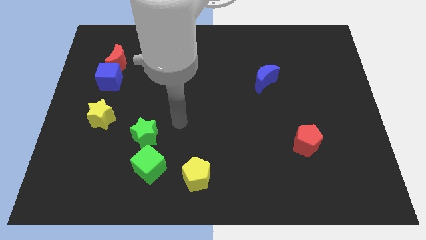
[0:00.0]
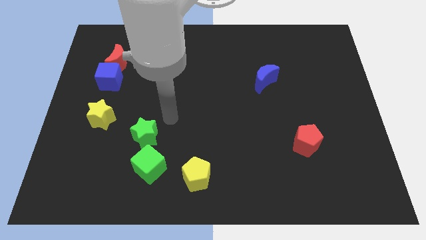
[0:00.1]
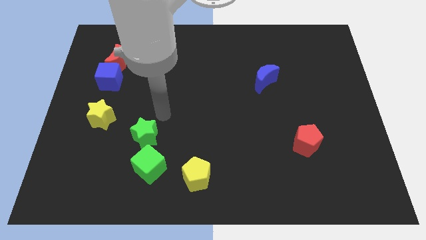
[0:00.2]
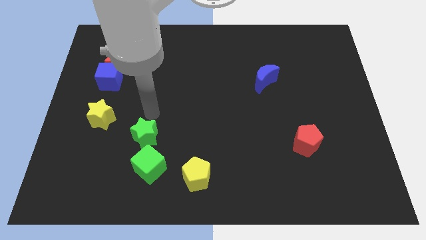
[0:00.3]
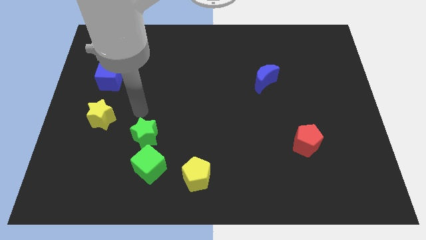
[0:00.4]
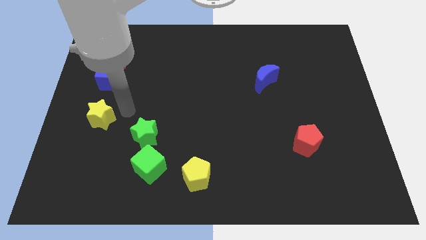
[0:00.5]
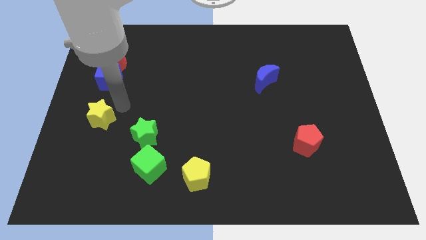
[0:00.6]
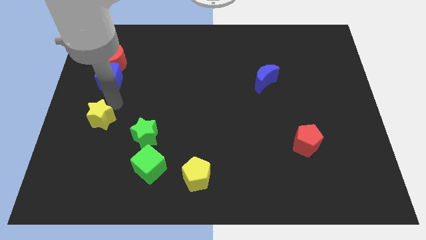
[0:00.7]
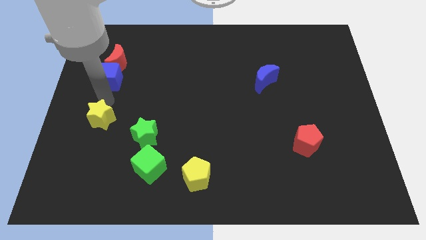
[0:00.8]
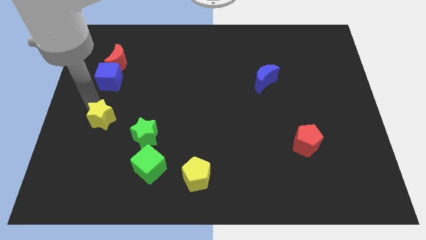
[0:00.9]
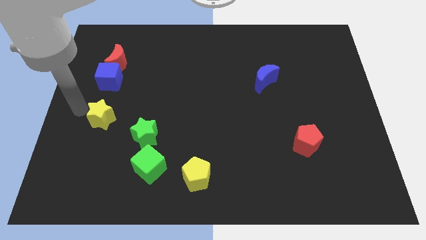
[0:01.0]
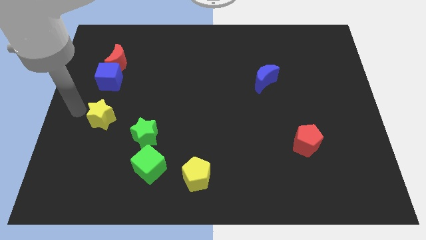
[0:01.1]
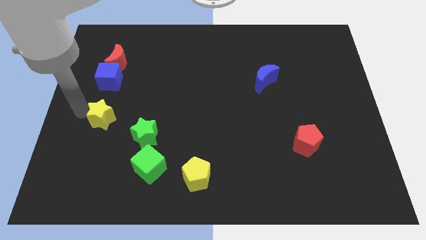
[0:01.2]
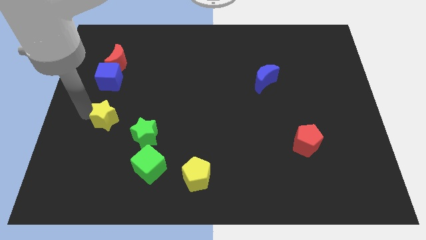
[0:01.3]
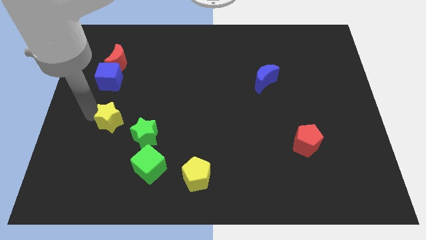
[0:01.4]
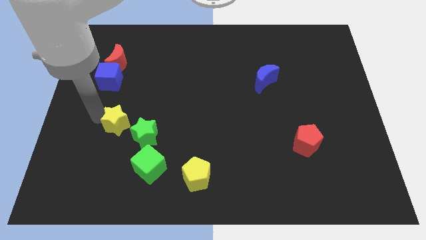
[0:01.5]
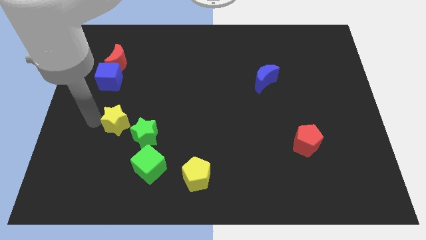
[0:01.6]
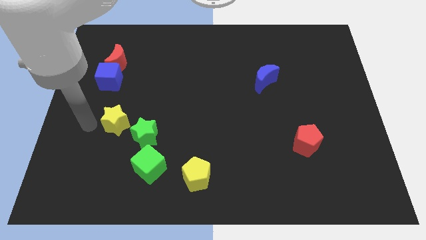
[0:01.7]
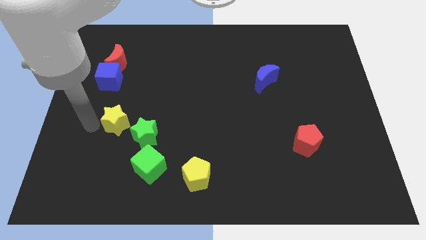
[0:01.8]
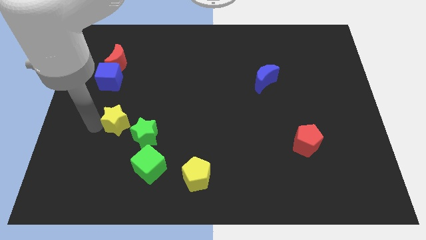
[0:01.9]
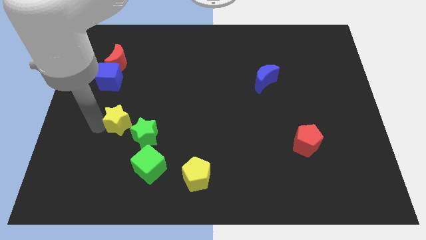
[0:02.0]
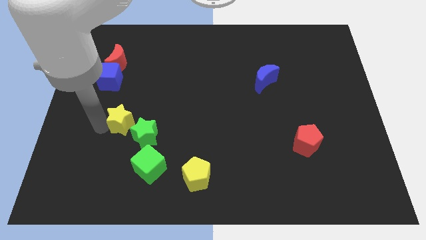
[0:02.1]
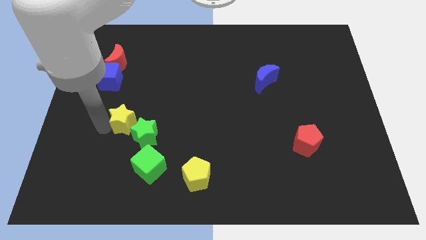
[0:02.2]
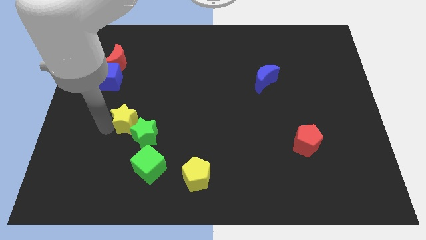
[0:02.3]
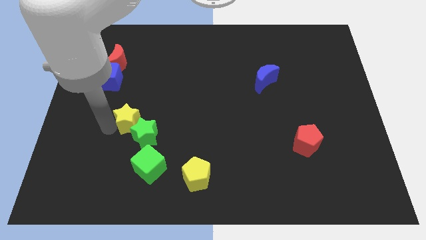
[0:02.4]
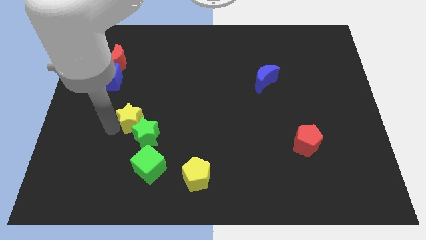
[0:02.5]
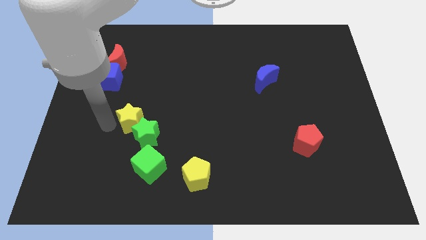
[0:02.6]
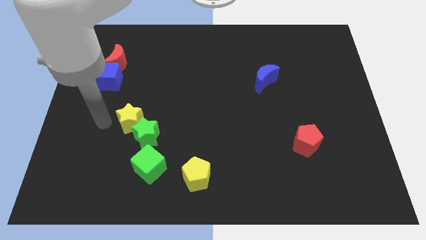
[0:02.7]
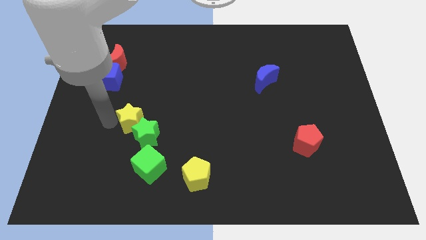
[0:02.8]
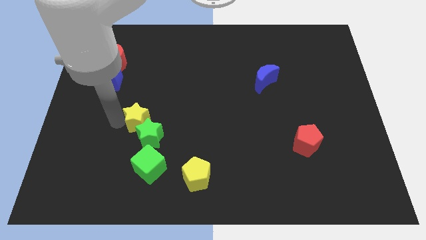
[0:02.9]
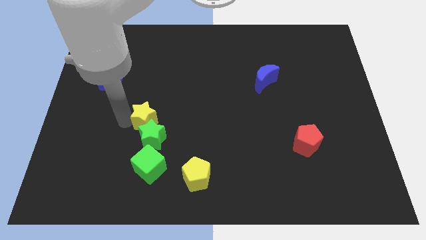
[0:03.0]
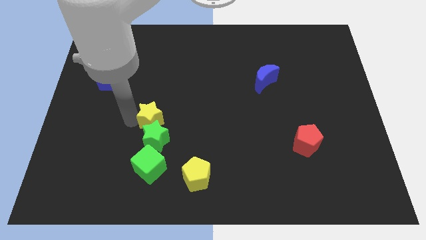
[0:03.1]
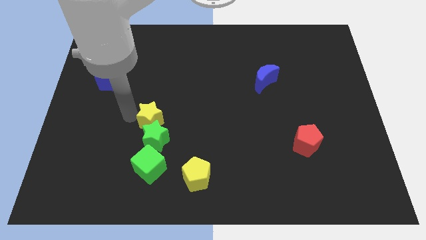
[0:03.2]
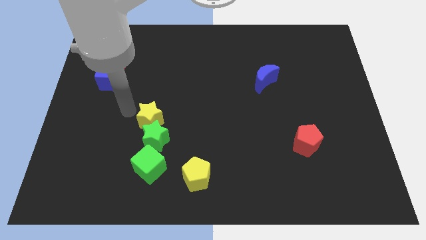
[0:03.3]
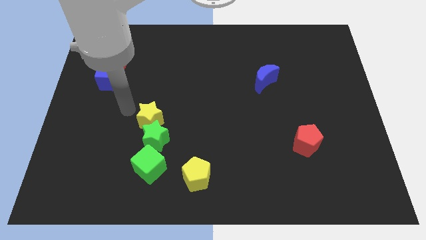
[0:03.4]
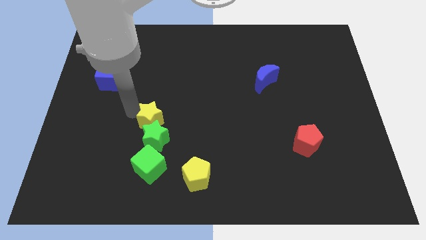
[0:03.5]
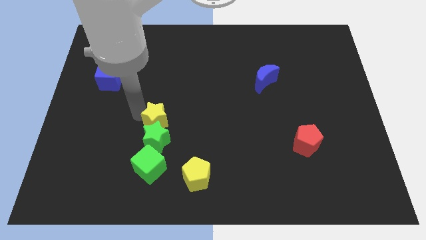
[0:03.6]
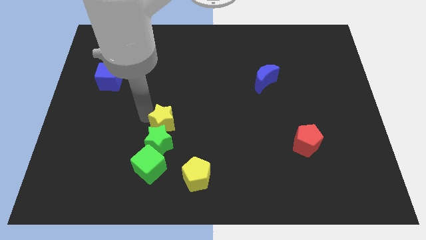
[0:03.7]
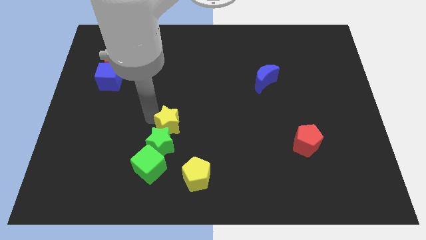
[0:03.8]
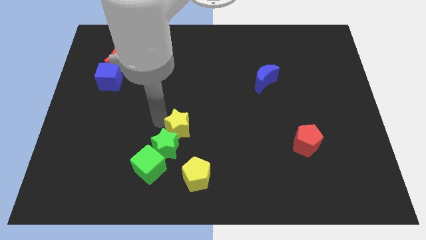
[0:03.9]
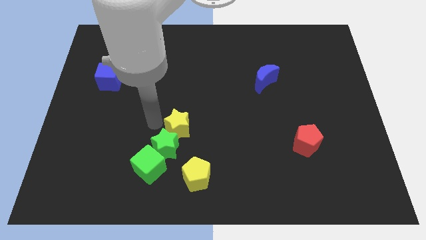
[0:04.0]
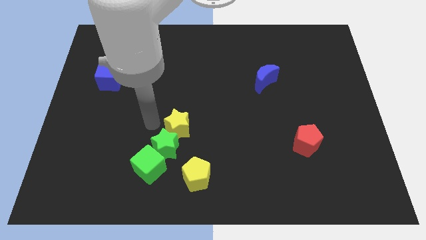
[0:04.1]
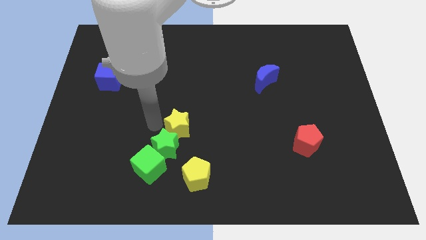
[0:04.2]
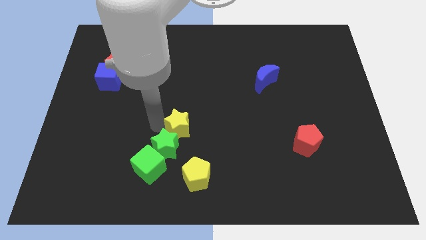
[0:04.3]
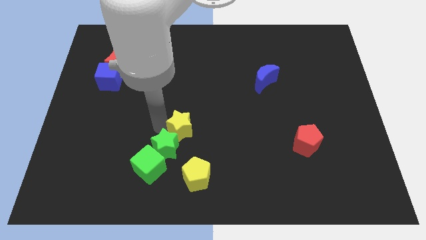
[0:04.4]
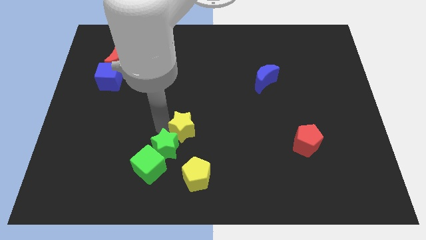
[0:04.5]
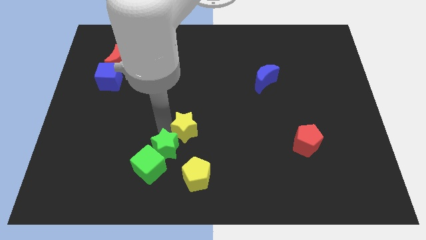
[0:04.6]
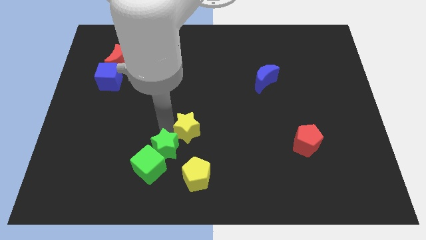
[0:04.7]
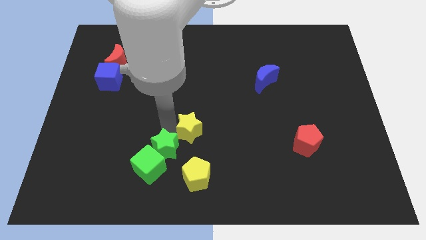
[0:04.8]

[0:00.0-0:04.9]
slide the yellow star to the right

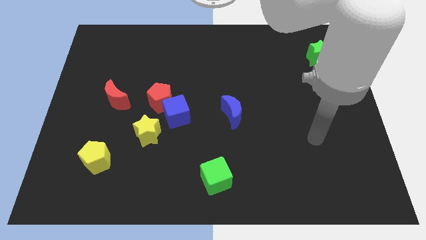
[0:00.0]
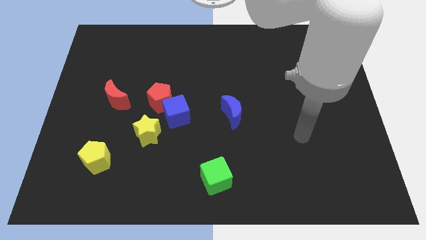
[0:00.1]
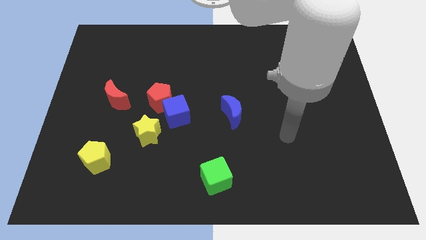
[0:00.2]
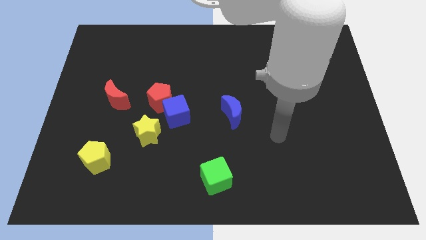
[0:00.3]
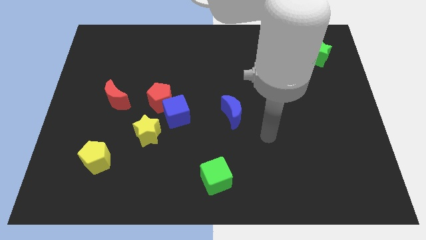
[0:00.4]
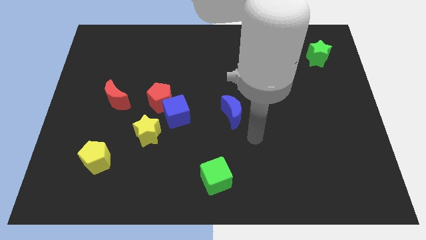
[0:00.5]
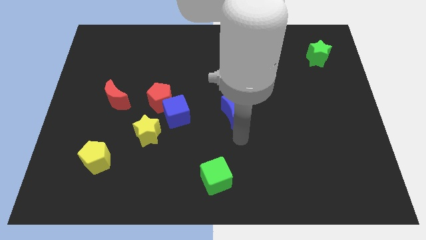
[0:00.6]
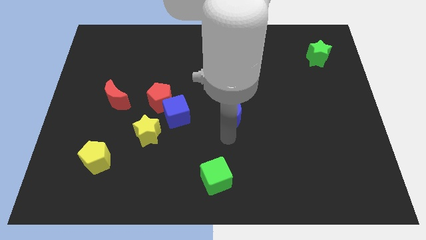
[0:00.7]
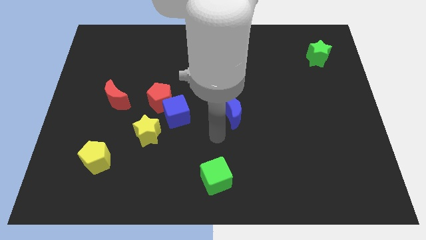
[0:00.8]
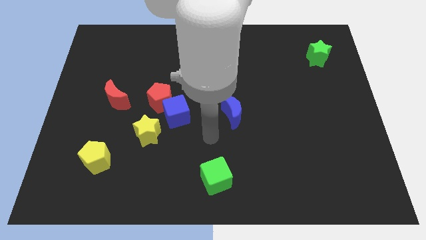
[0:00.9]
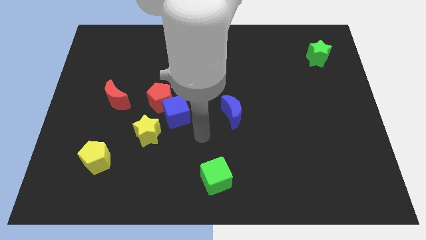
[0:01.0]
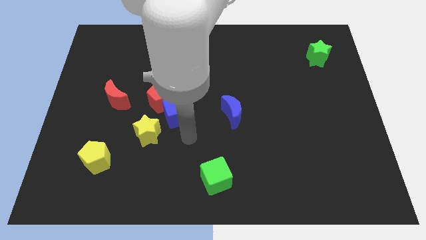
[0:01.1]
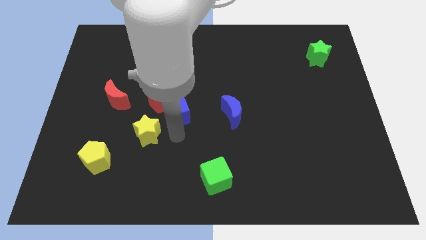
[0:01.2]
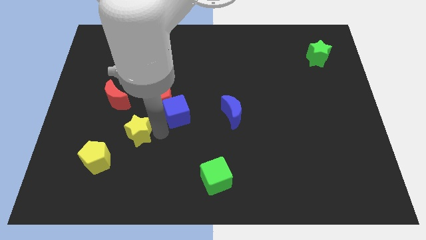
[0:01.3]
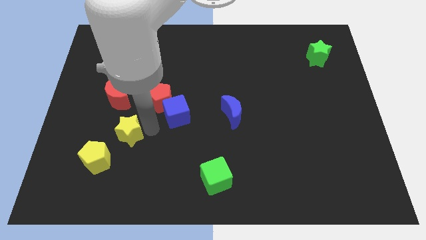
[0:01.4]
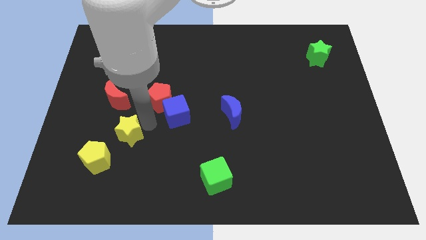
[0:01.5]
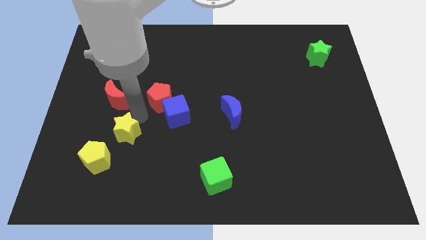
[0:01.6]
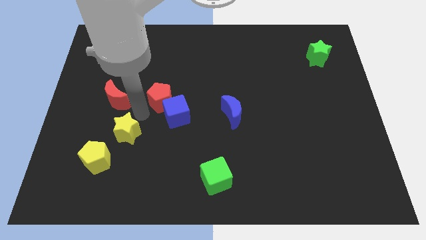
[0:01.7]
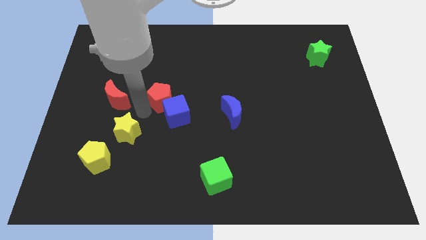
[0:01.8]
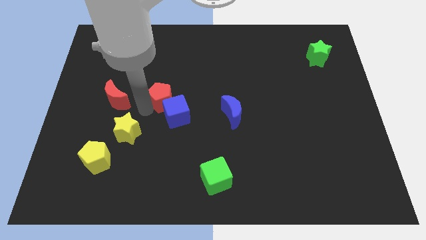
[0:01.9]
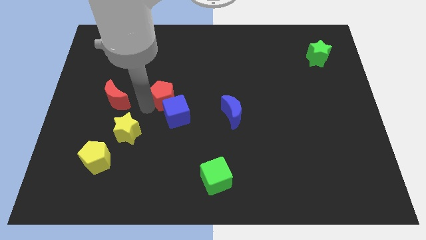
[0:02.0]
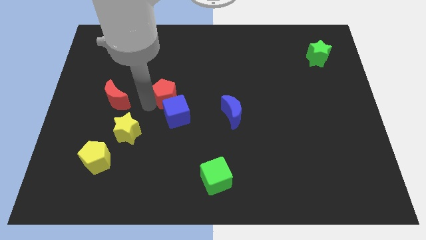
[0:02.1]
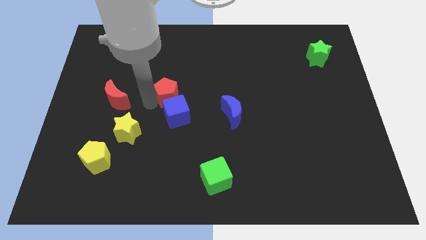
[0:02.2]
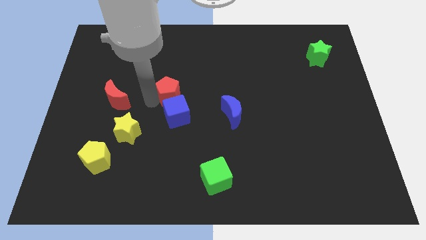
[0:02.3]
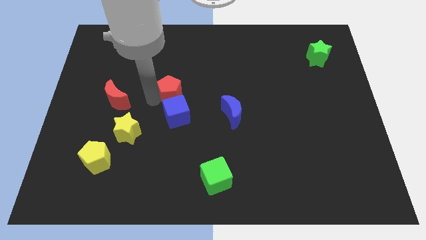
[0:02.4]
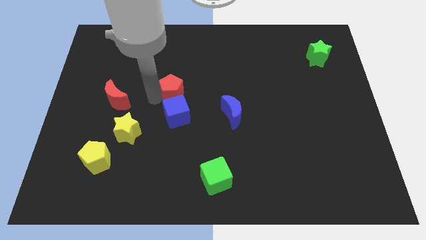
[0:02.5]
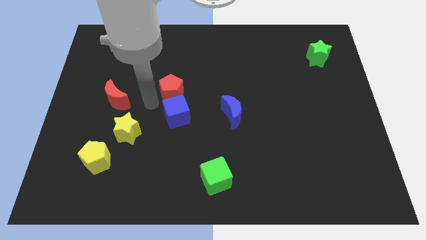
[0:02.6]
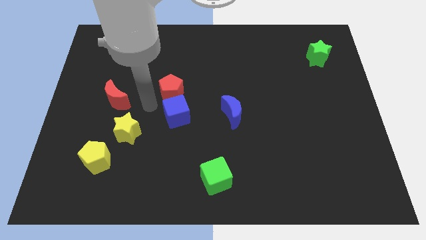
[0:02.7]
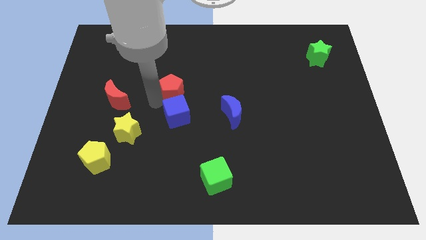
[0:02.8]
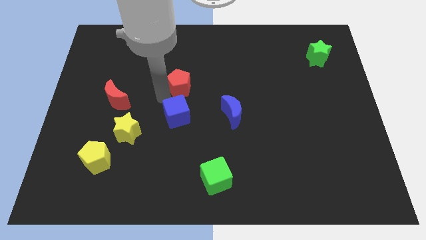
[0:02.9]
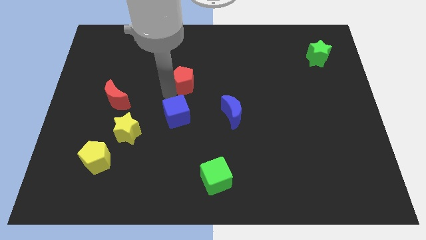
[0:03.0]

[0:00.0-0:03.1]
slightly push the red pentagon upwards and to the right
